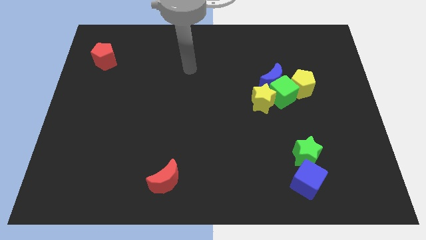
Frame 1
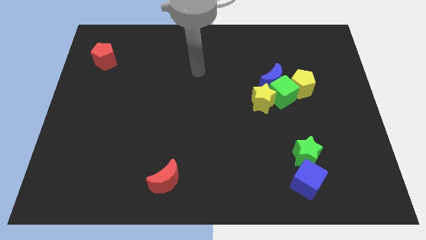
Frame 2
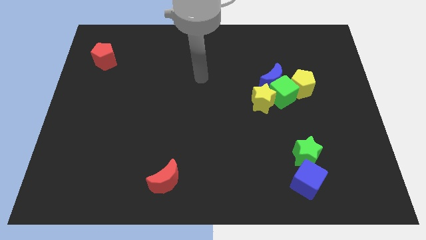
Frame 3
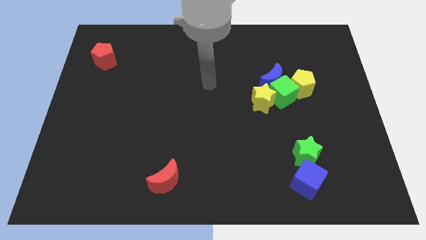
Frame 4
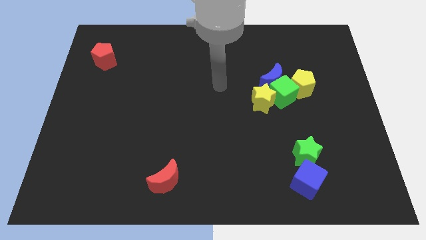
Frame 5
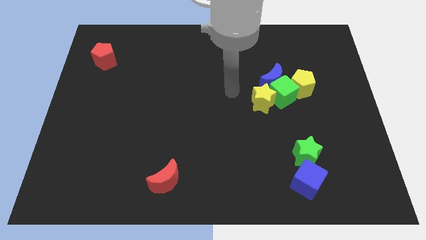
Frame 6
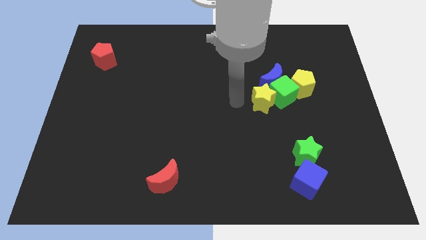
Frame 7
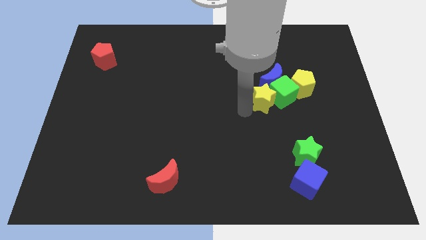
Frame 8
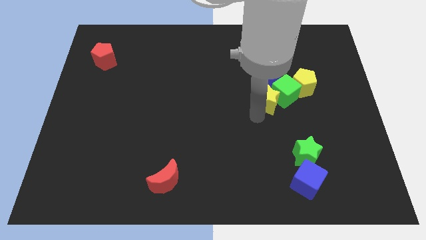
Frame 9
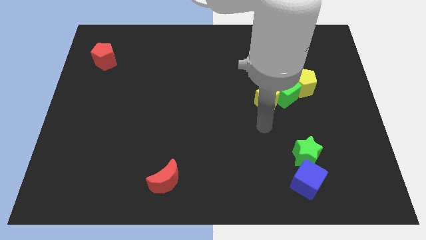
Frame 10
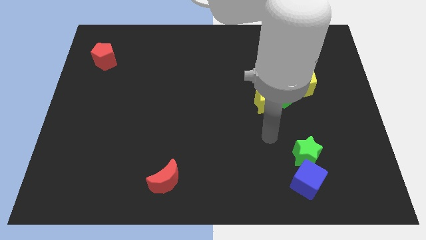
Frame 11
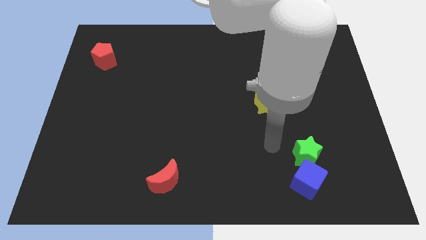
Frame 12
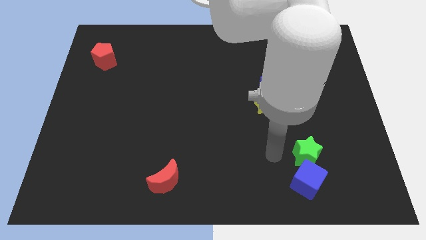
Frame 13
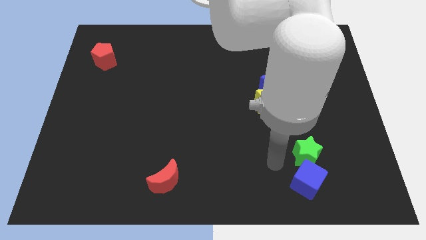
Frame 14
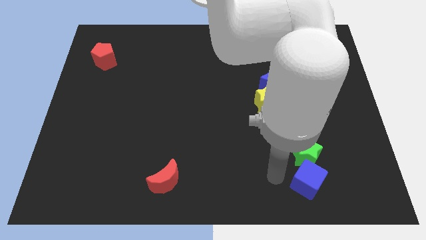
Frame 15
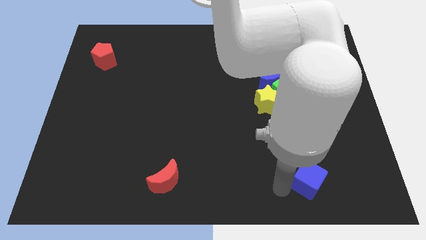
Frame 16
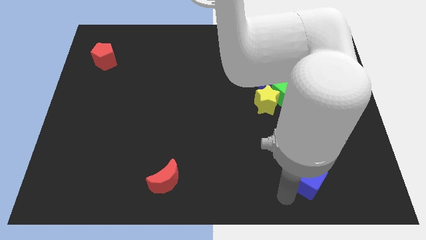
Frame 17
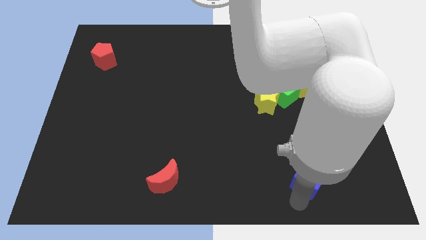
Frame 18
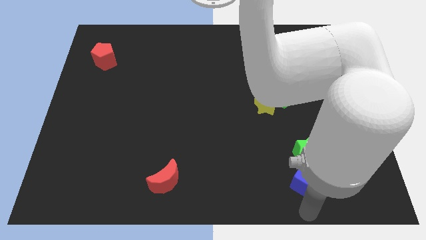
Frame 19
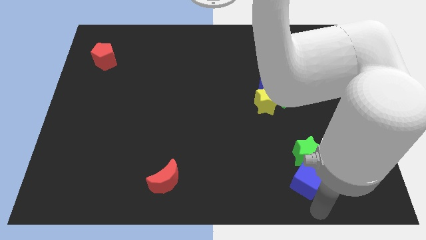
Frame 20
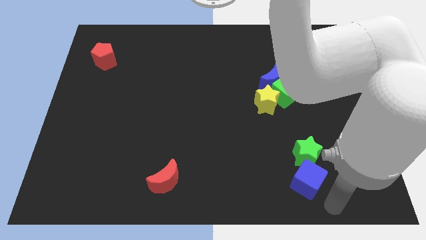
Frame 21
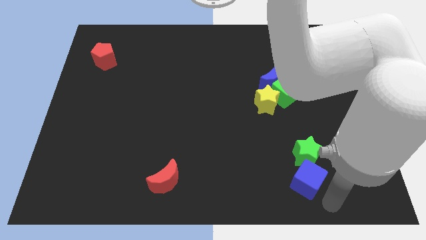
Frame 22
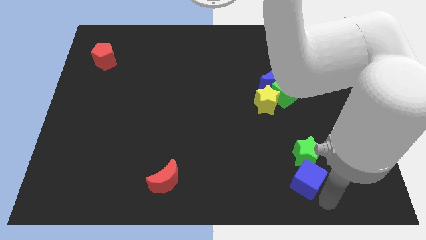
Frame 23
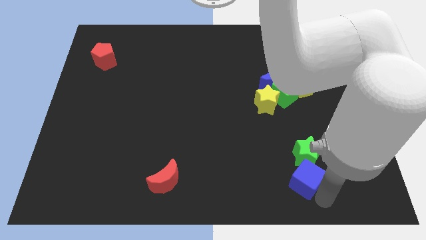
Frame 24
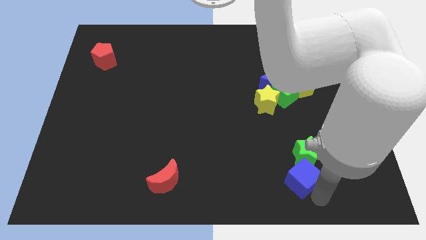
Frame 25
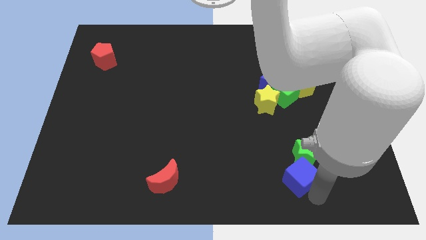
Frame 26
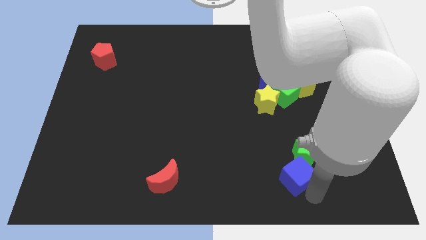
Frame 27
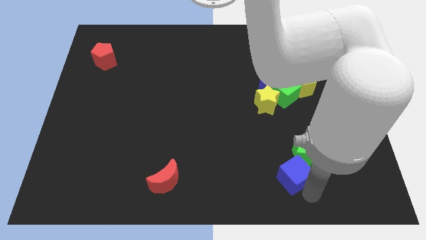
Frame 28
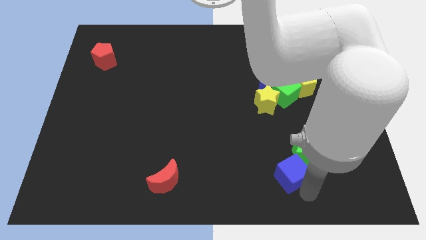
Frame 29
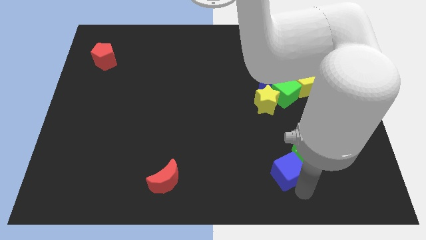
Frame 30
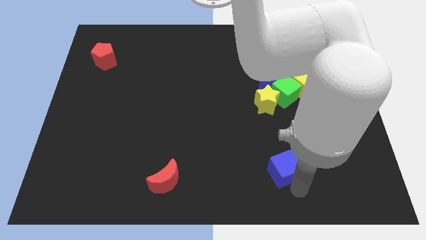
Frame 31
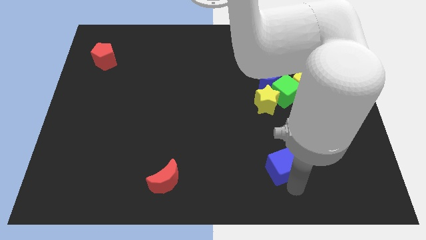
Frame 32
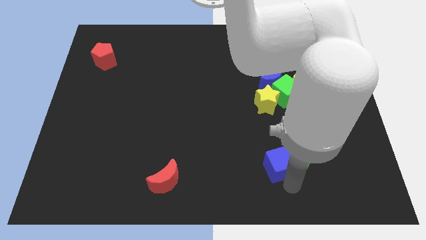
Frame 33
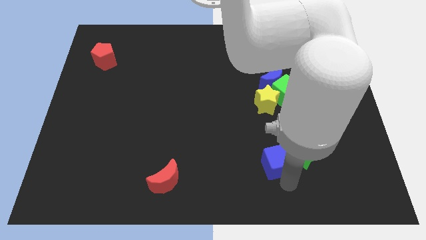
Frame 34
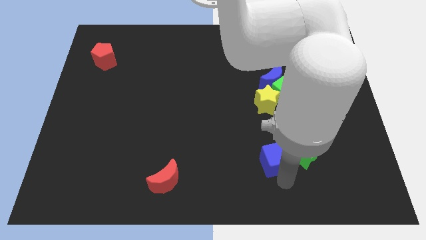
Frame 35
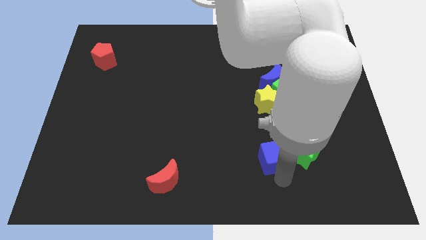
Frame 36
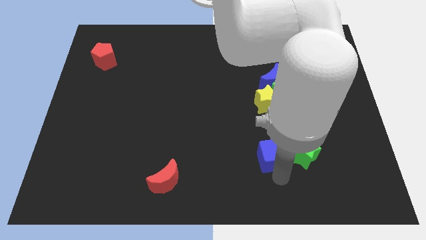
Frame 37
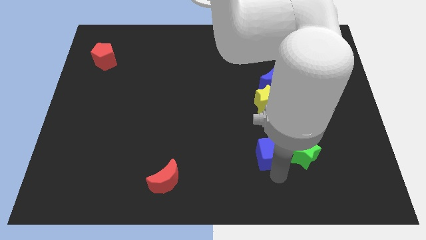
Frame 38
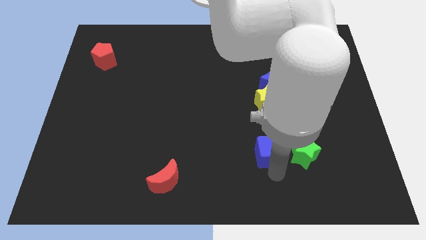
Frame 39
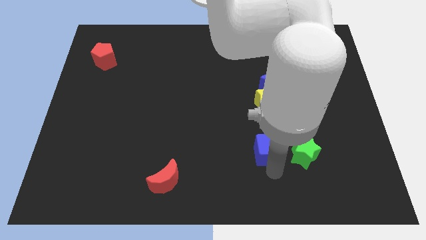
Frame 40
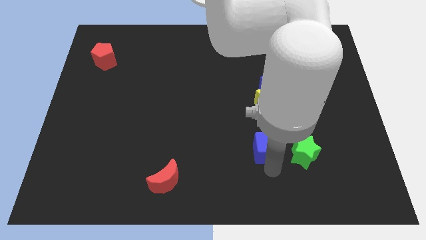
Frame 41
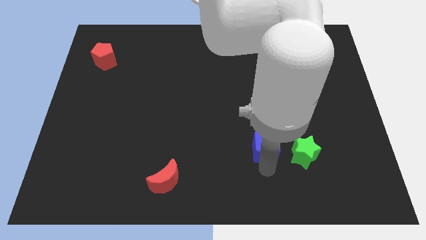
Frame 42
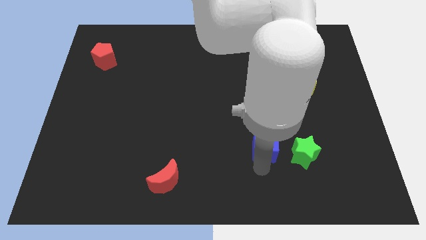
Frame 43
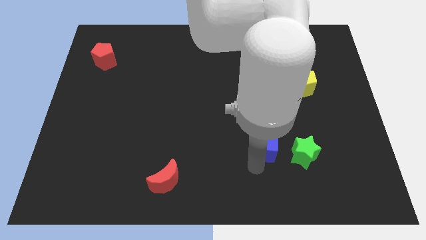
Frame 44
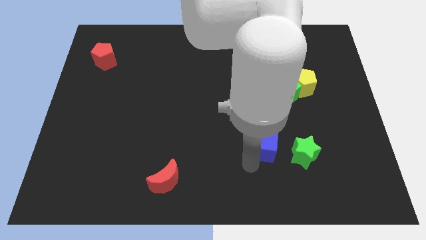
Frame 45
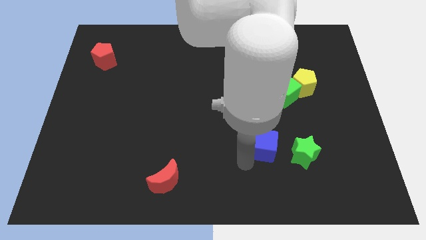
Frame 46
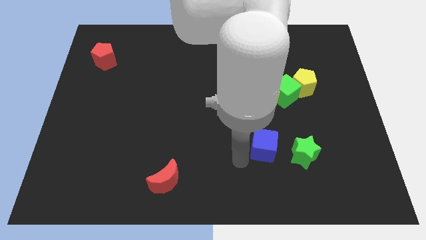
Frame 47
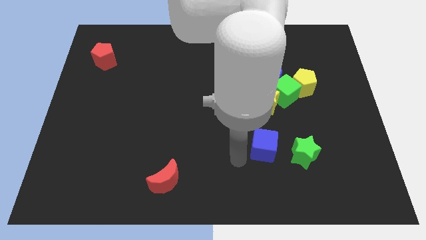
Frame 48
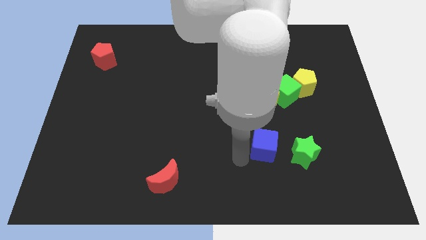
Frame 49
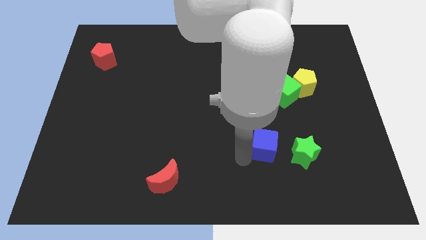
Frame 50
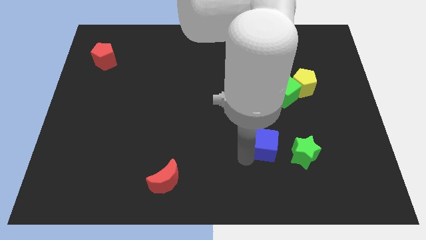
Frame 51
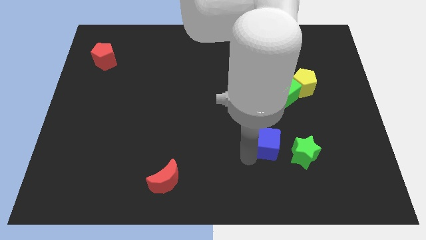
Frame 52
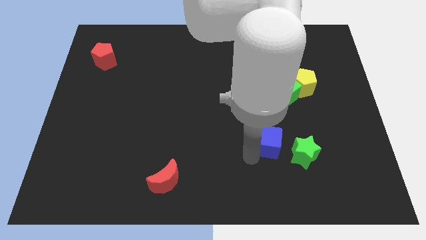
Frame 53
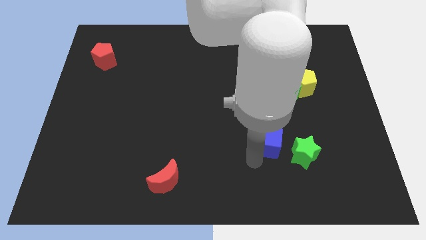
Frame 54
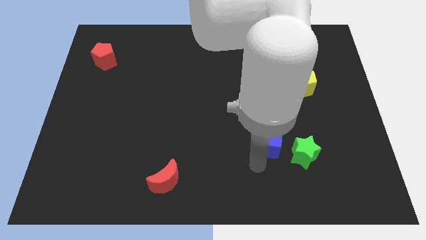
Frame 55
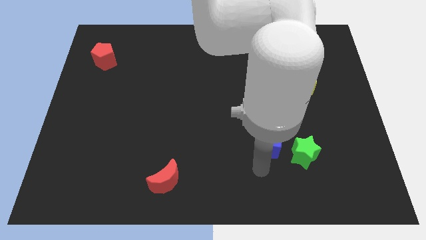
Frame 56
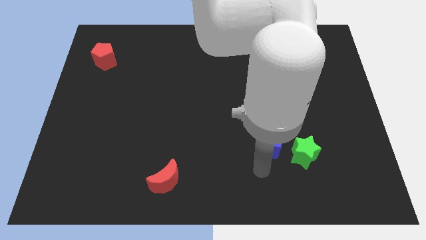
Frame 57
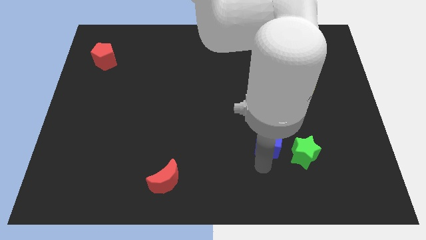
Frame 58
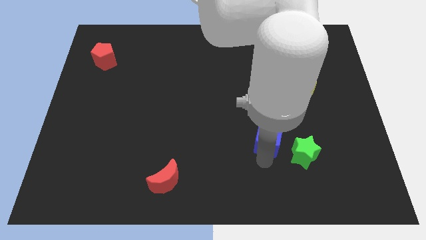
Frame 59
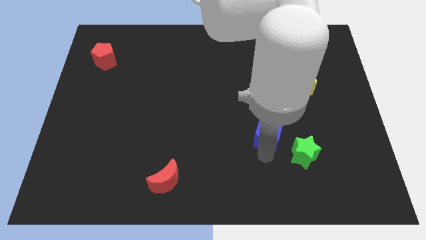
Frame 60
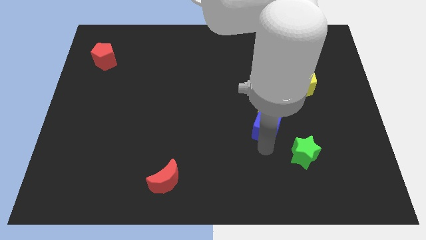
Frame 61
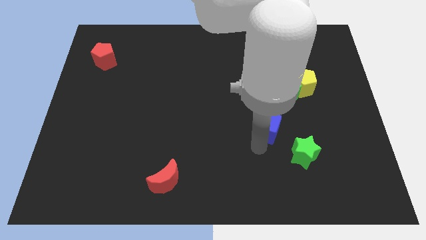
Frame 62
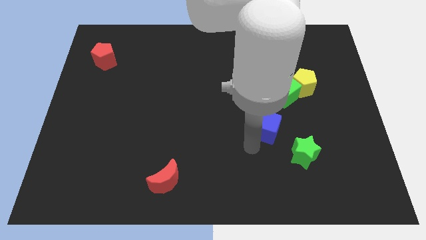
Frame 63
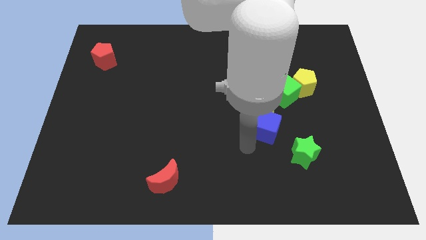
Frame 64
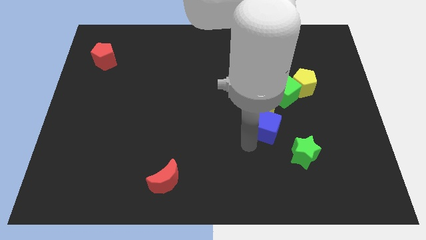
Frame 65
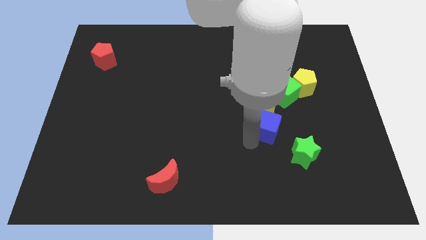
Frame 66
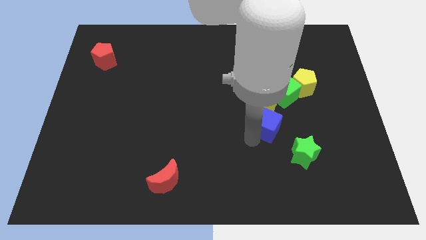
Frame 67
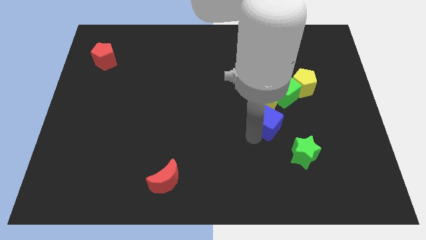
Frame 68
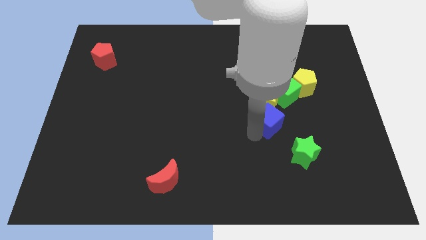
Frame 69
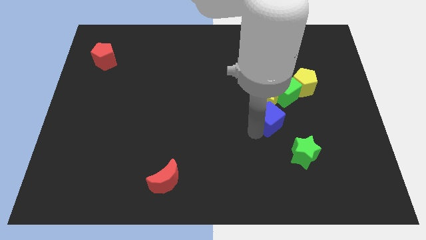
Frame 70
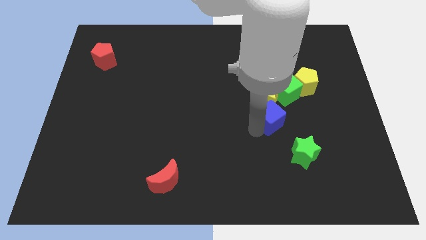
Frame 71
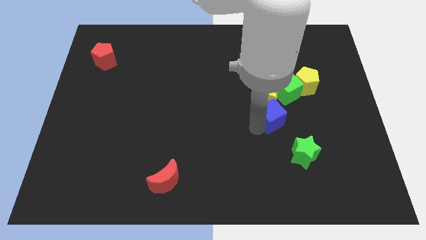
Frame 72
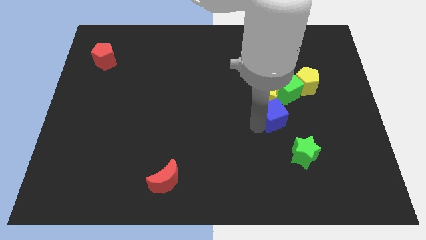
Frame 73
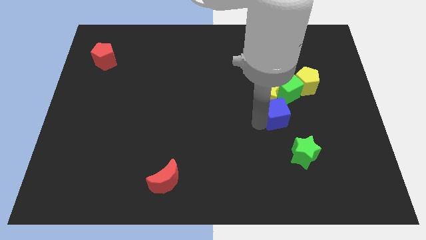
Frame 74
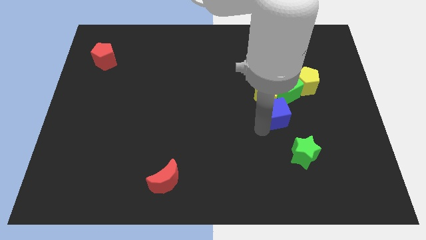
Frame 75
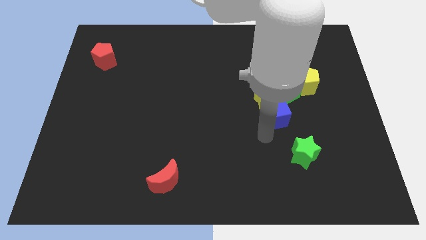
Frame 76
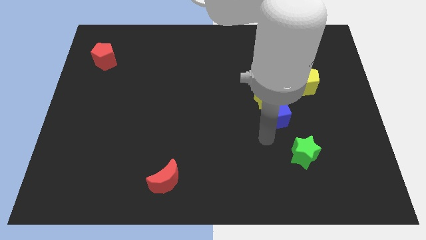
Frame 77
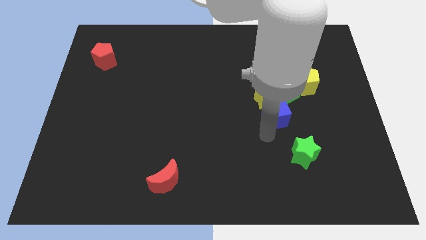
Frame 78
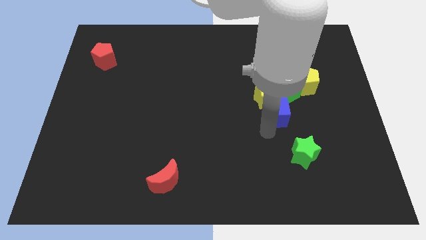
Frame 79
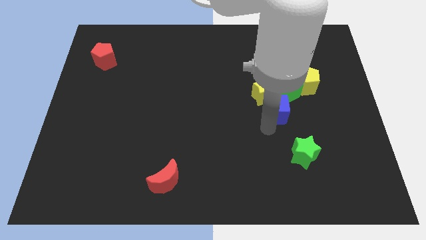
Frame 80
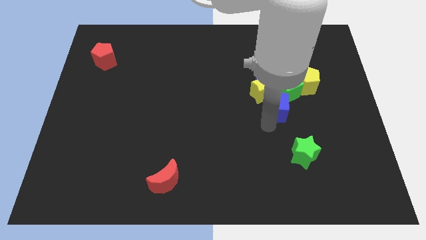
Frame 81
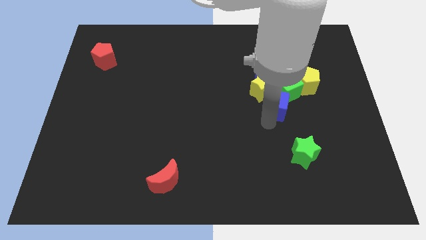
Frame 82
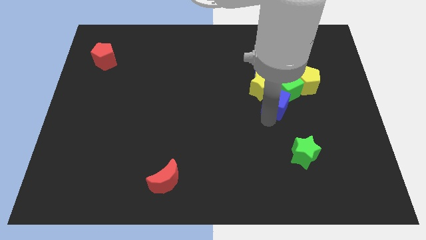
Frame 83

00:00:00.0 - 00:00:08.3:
put the blue cube close to the green cube
